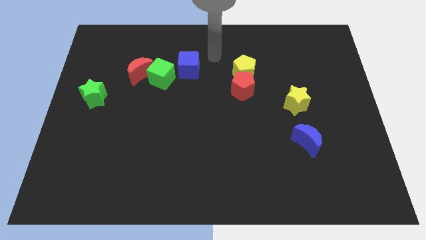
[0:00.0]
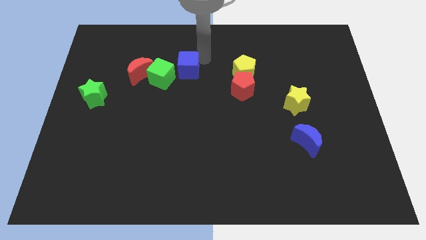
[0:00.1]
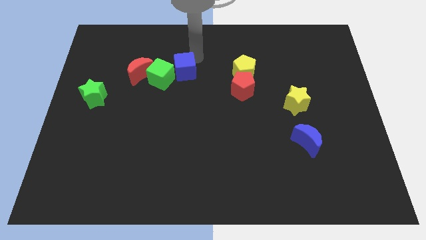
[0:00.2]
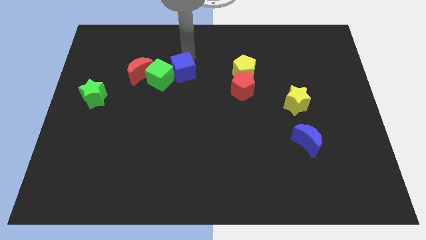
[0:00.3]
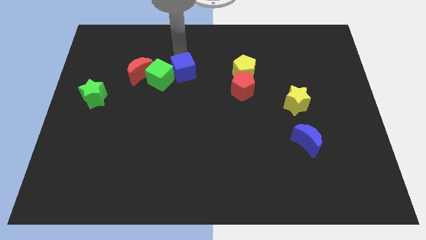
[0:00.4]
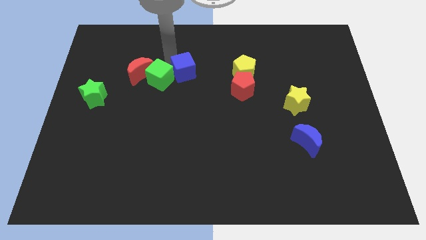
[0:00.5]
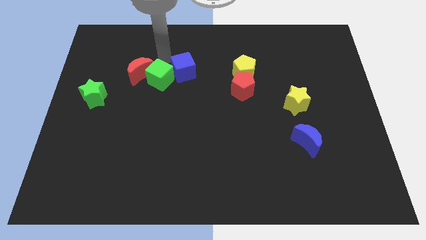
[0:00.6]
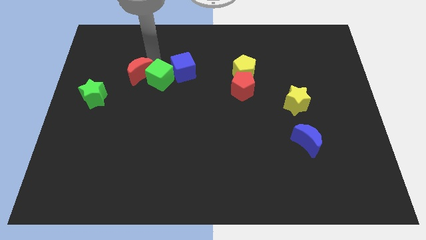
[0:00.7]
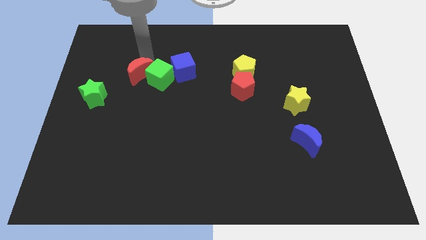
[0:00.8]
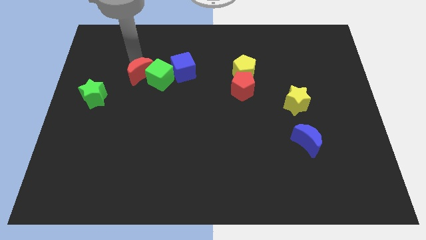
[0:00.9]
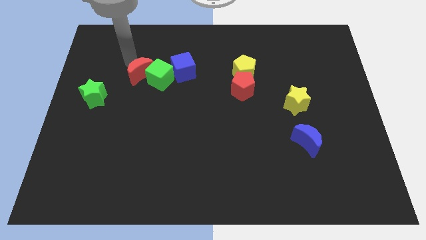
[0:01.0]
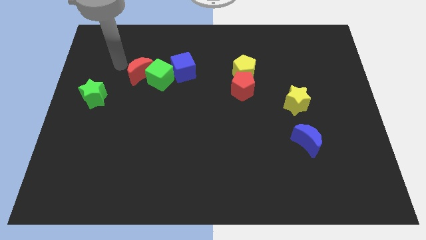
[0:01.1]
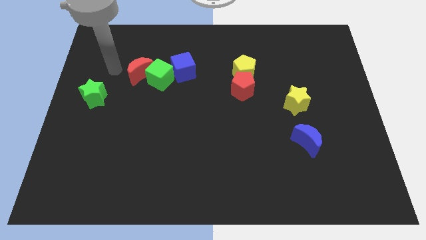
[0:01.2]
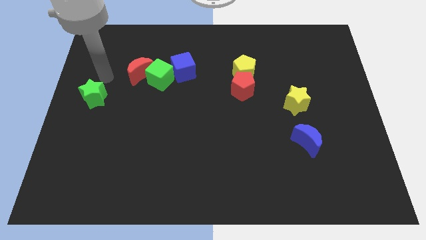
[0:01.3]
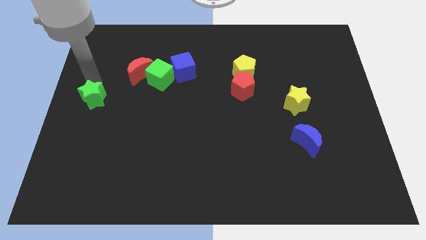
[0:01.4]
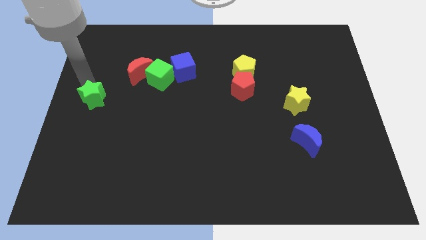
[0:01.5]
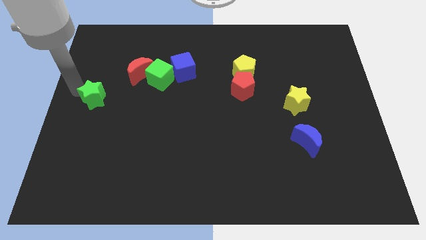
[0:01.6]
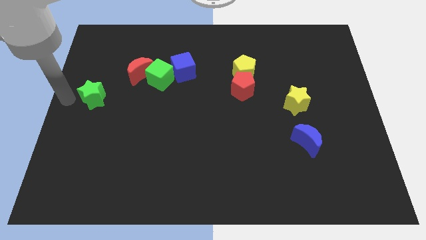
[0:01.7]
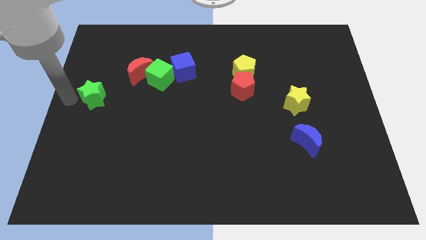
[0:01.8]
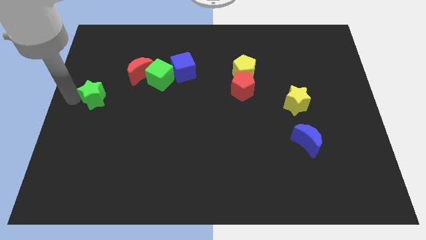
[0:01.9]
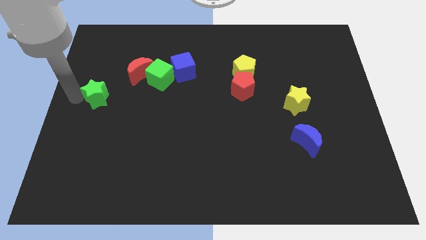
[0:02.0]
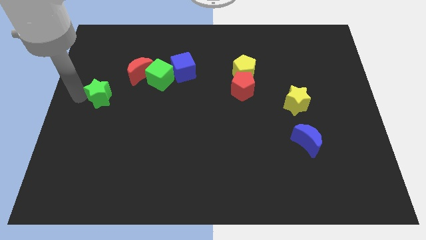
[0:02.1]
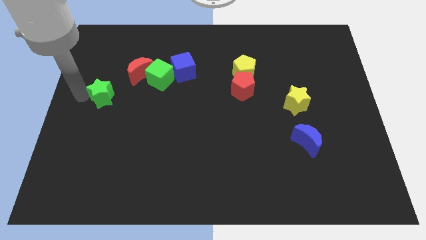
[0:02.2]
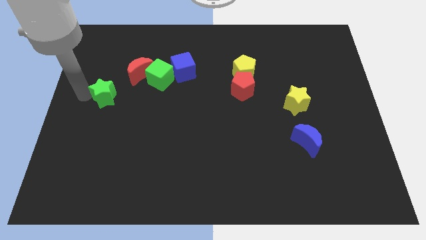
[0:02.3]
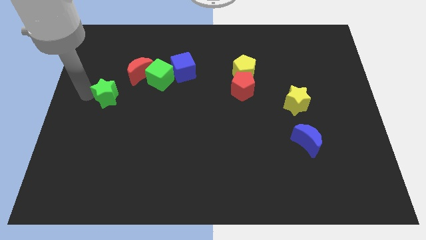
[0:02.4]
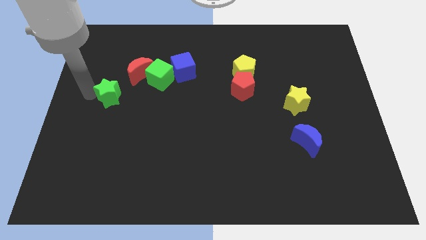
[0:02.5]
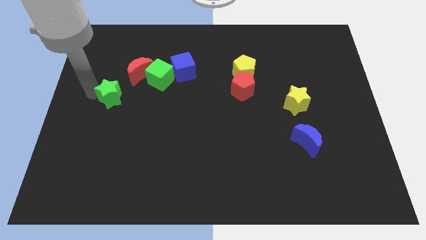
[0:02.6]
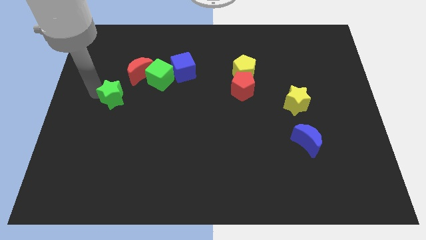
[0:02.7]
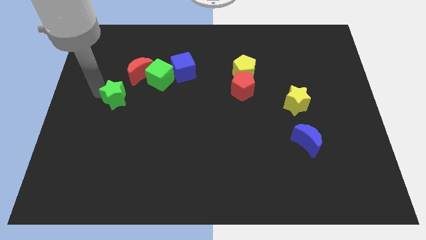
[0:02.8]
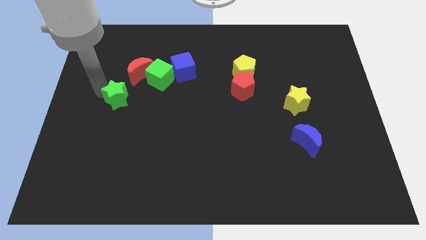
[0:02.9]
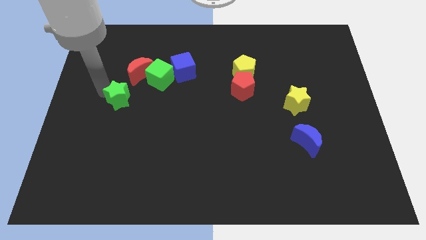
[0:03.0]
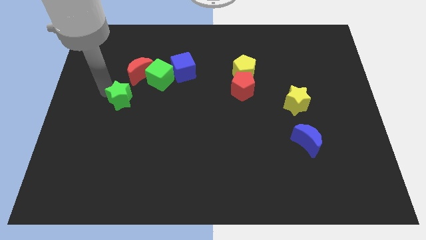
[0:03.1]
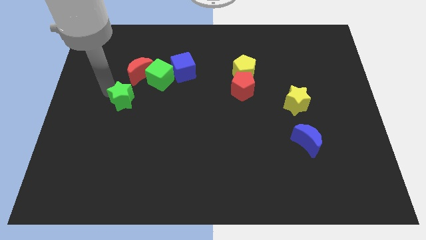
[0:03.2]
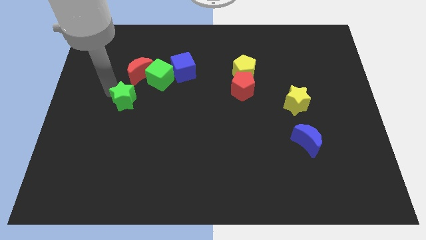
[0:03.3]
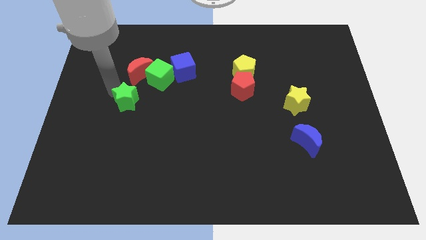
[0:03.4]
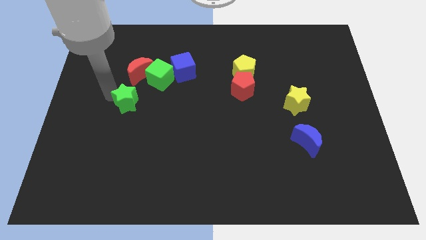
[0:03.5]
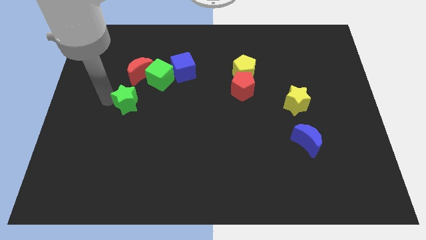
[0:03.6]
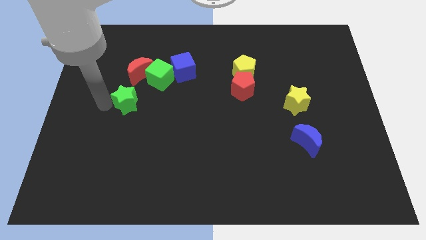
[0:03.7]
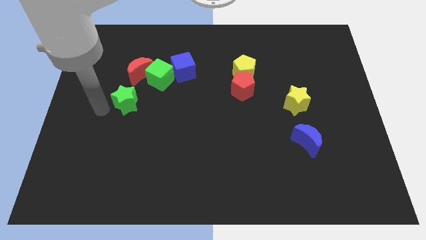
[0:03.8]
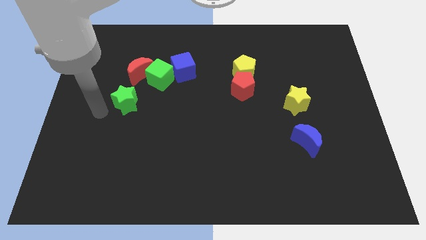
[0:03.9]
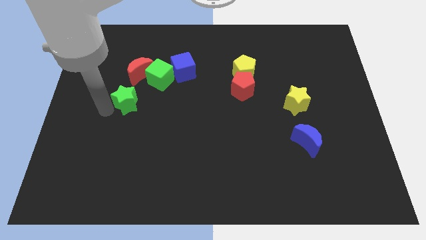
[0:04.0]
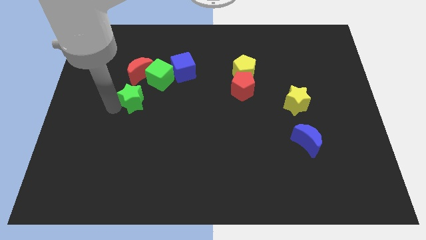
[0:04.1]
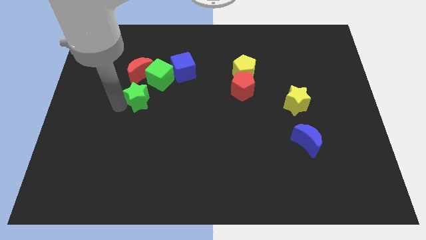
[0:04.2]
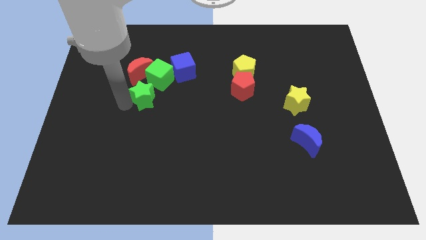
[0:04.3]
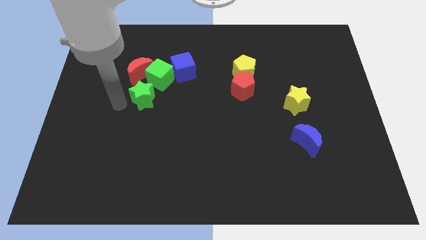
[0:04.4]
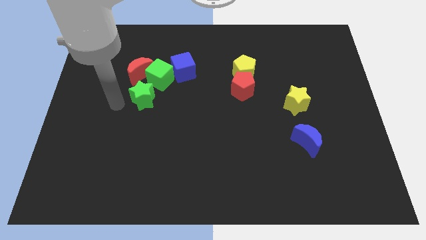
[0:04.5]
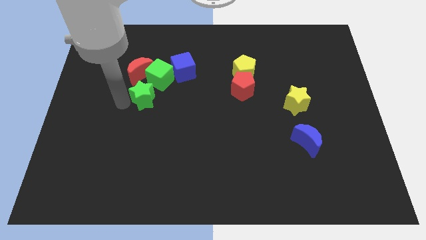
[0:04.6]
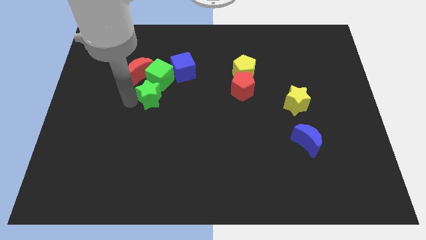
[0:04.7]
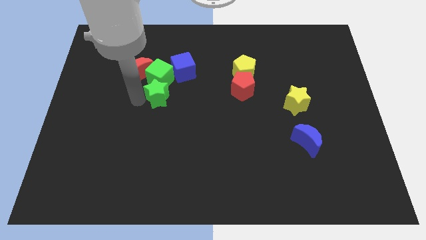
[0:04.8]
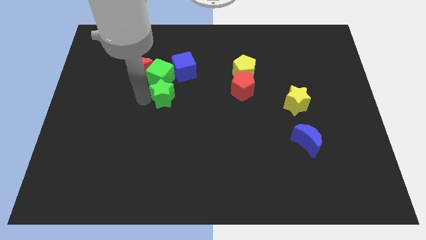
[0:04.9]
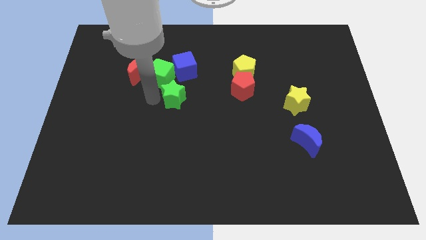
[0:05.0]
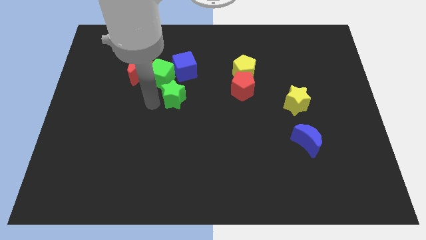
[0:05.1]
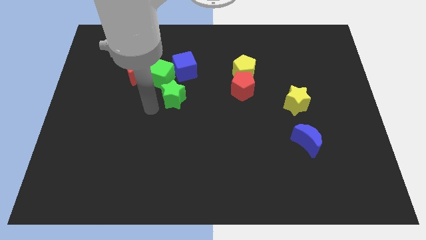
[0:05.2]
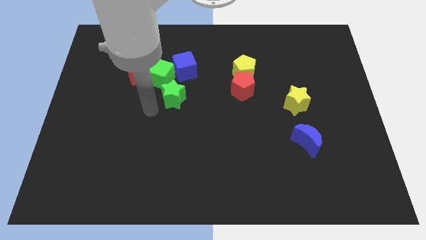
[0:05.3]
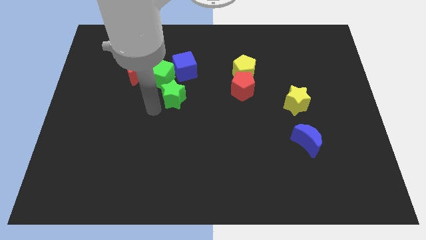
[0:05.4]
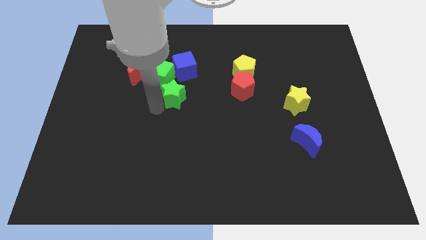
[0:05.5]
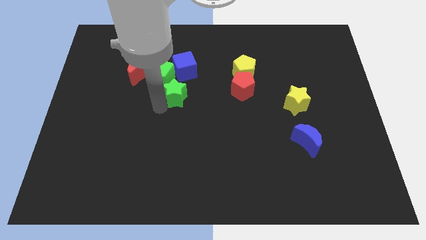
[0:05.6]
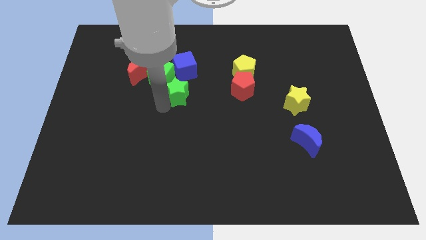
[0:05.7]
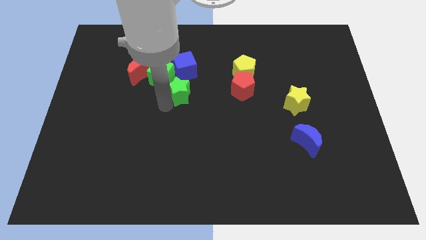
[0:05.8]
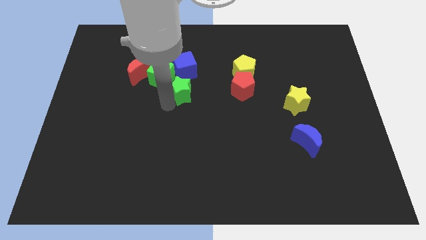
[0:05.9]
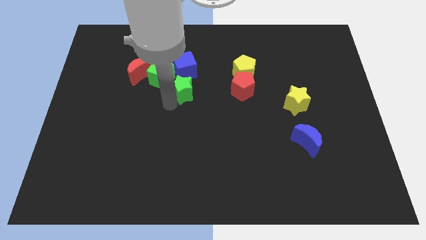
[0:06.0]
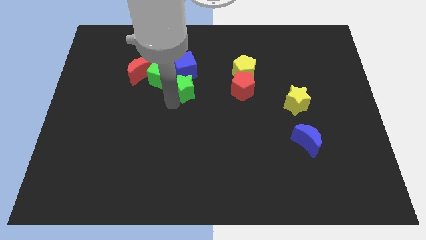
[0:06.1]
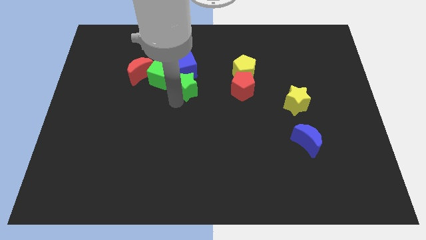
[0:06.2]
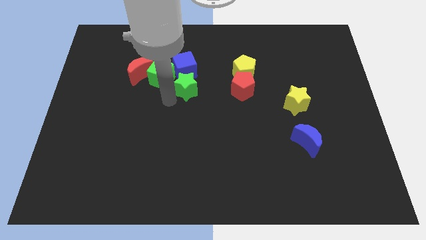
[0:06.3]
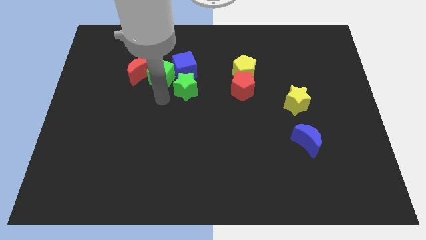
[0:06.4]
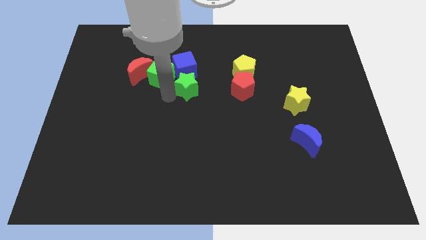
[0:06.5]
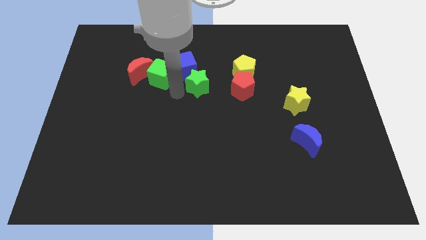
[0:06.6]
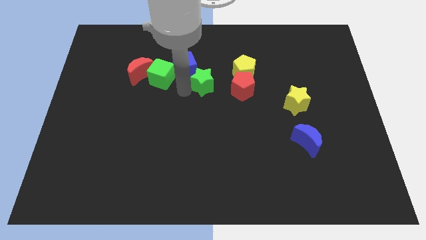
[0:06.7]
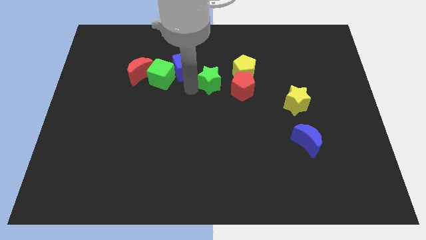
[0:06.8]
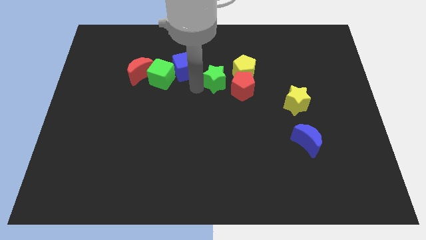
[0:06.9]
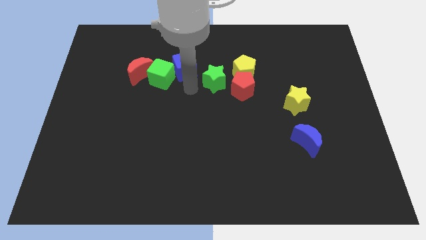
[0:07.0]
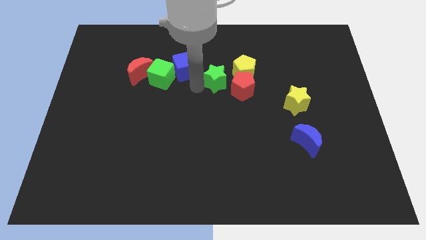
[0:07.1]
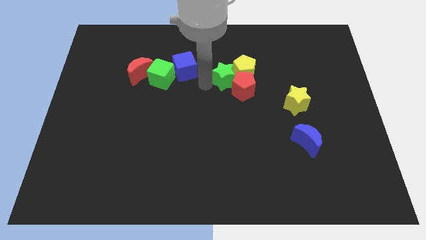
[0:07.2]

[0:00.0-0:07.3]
put the green star close to the yellow pentagon
